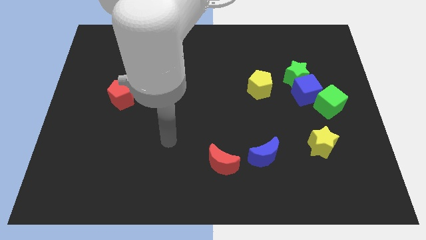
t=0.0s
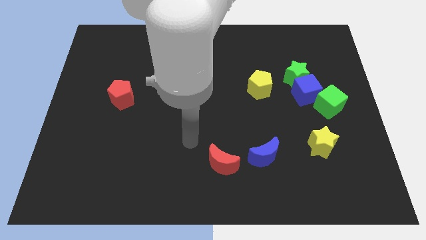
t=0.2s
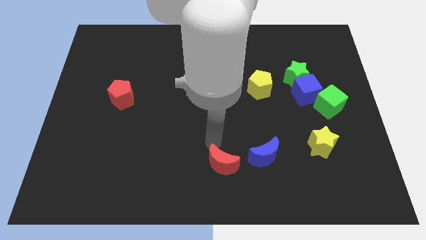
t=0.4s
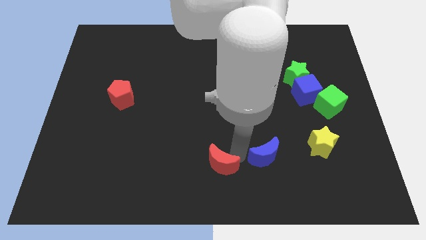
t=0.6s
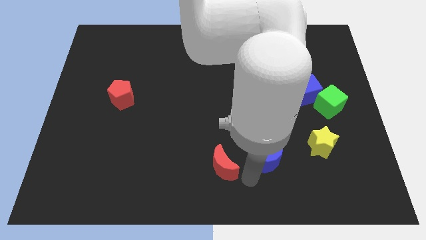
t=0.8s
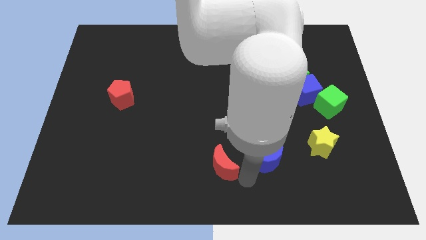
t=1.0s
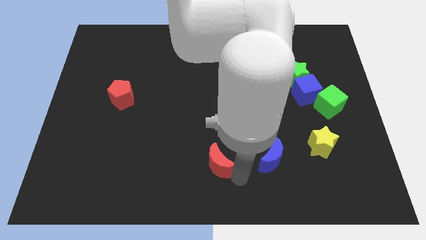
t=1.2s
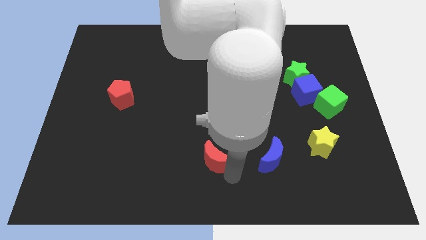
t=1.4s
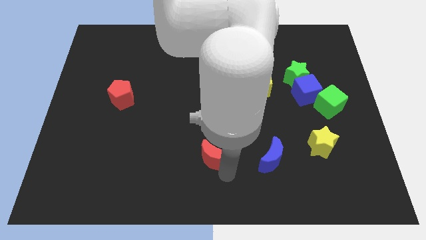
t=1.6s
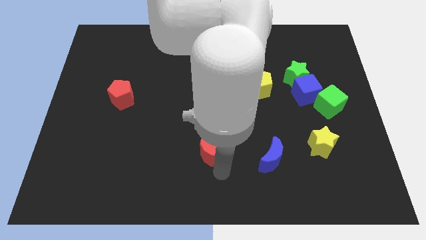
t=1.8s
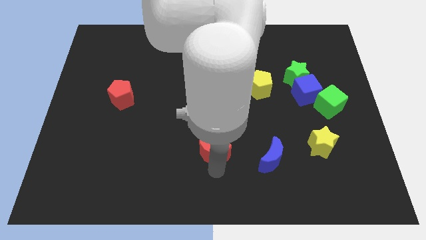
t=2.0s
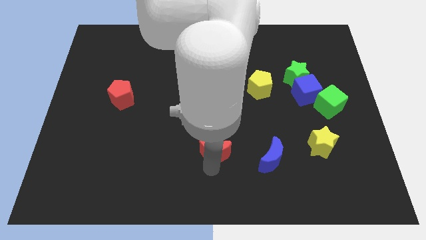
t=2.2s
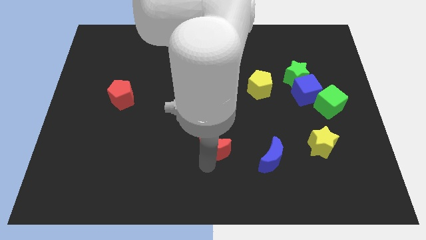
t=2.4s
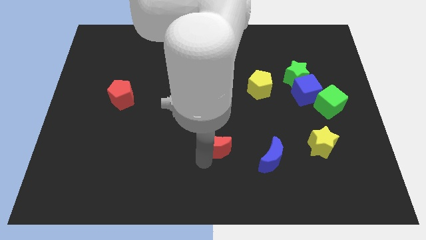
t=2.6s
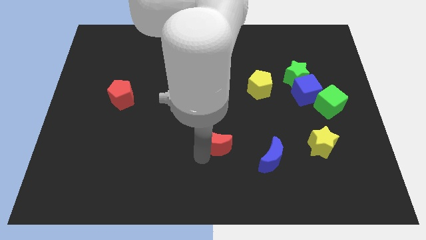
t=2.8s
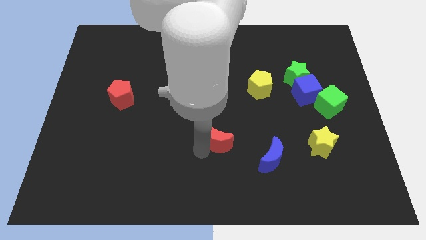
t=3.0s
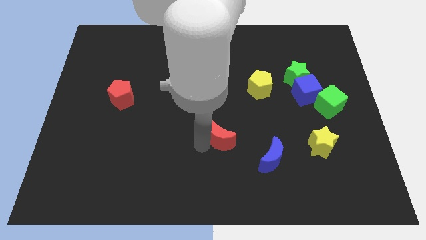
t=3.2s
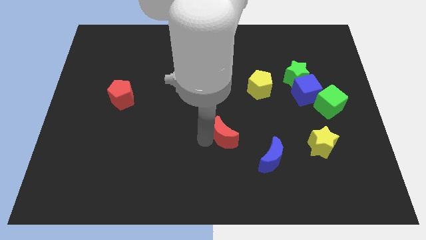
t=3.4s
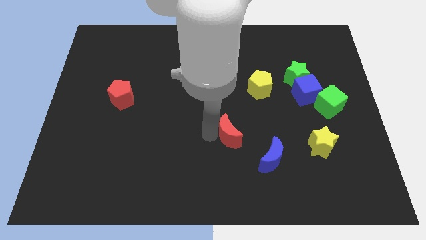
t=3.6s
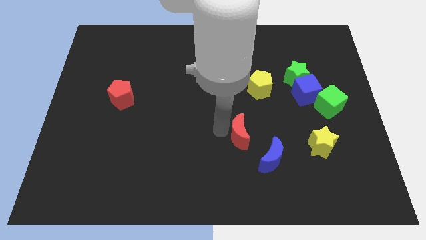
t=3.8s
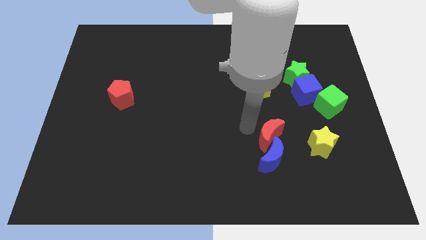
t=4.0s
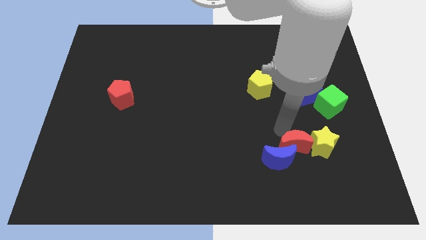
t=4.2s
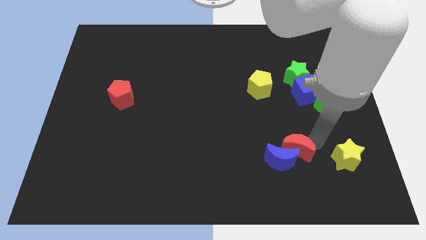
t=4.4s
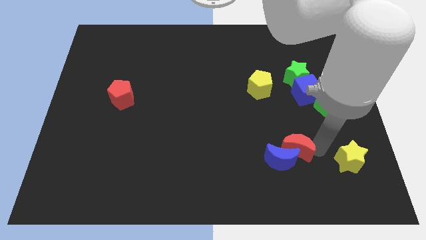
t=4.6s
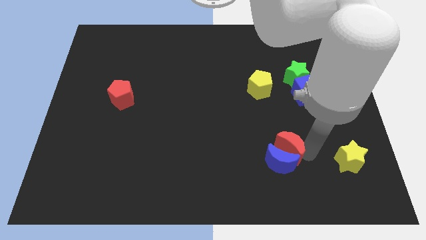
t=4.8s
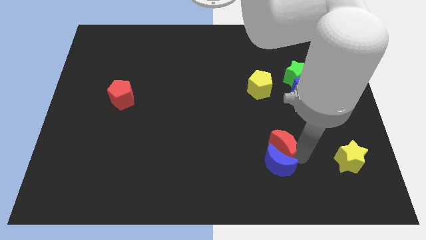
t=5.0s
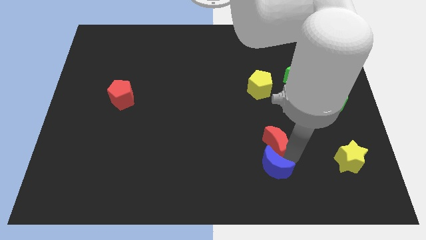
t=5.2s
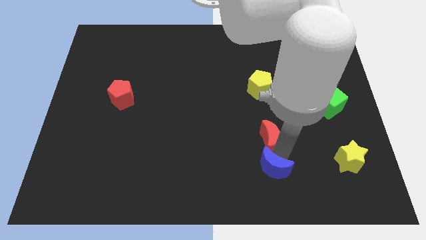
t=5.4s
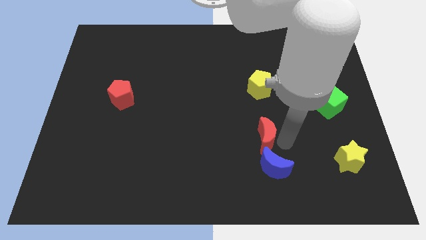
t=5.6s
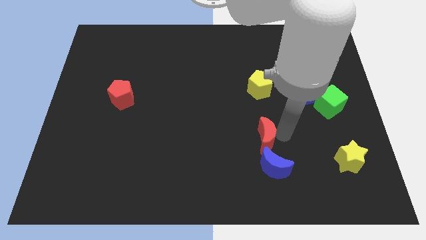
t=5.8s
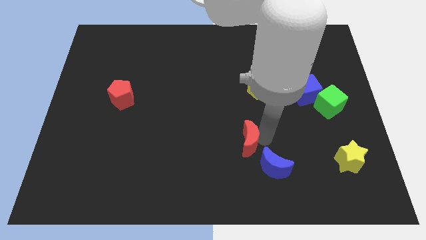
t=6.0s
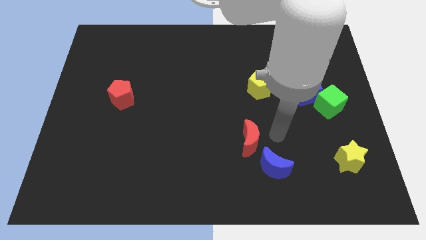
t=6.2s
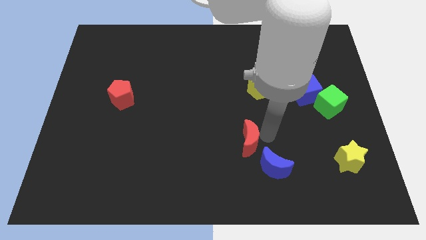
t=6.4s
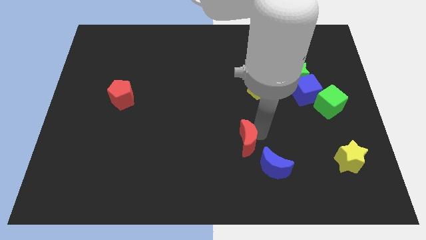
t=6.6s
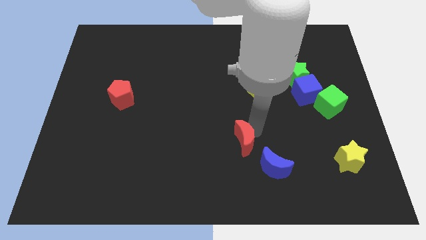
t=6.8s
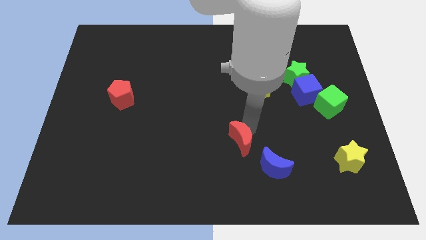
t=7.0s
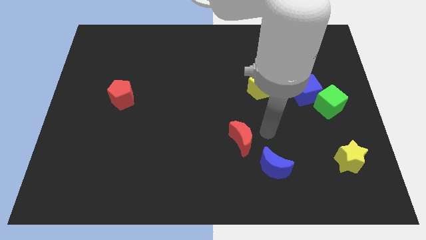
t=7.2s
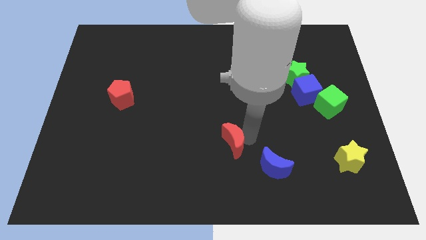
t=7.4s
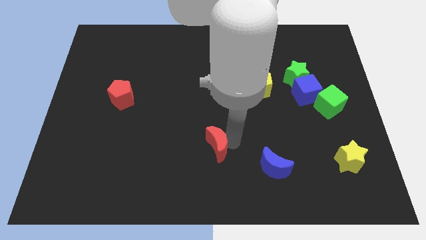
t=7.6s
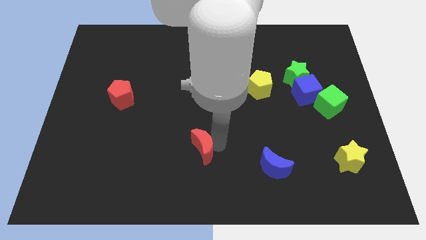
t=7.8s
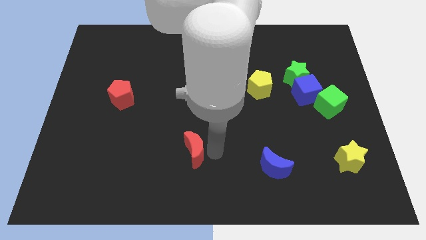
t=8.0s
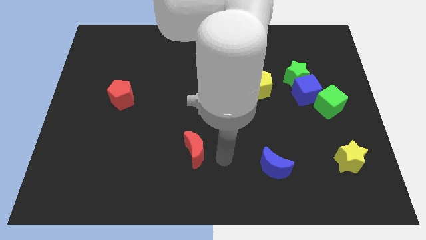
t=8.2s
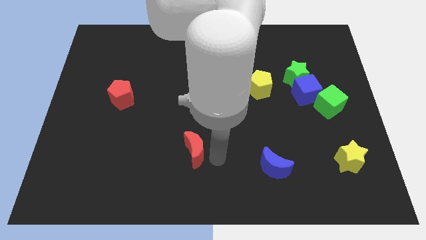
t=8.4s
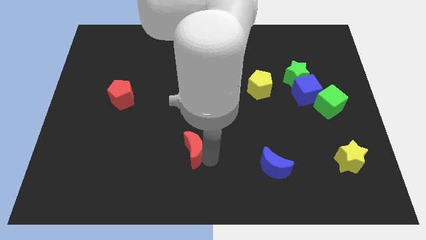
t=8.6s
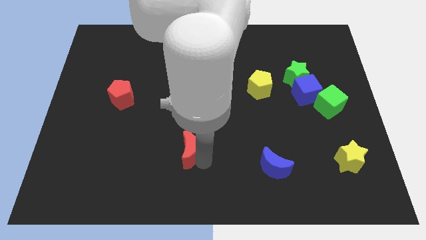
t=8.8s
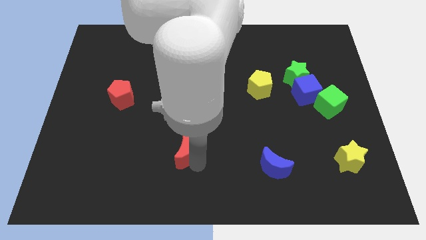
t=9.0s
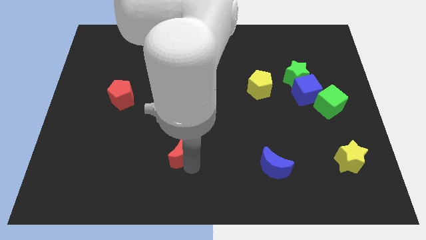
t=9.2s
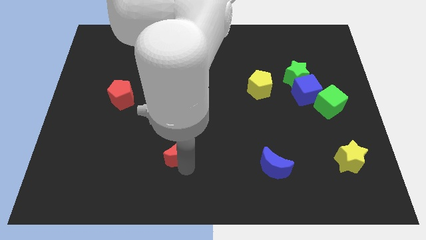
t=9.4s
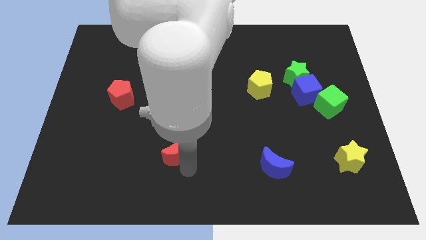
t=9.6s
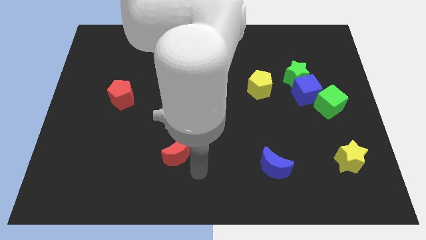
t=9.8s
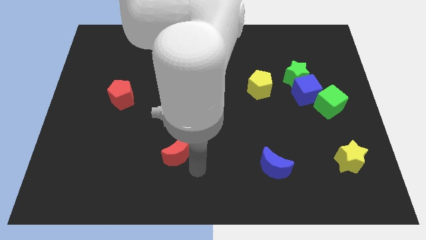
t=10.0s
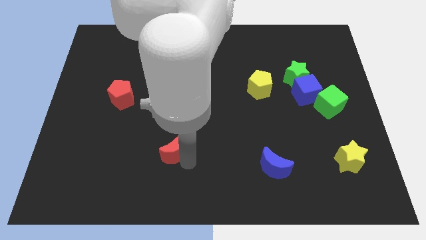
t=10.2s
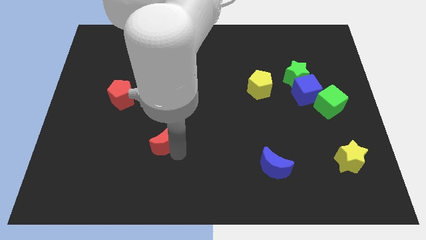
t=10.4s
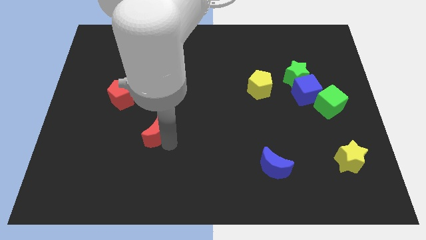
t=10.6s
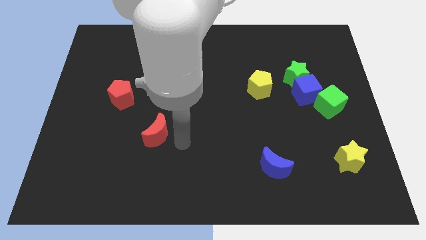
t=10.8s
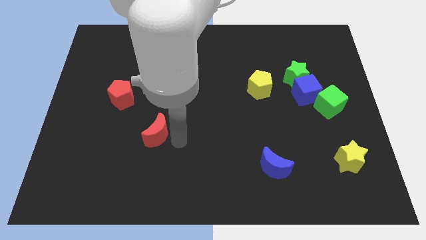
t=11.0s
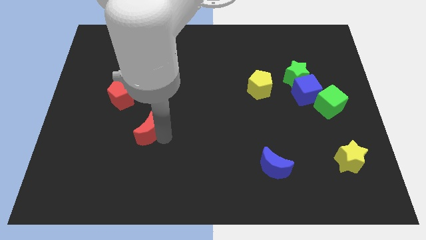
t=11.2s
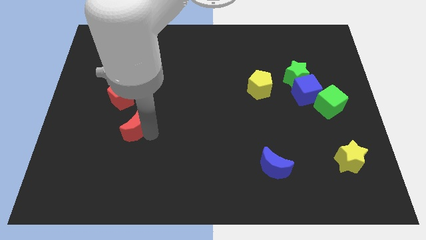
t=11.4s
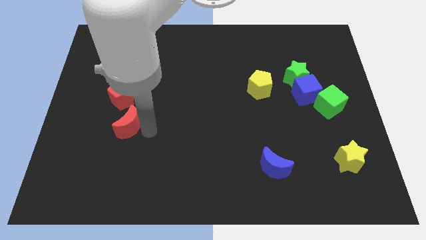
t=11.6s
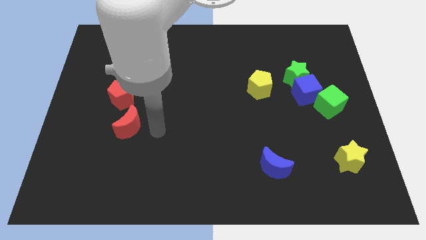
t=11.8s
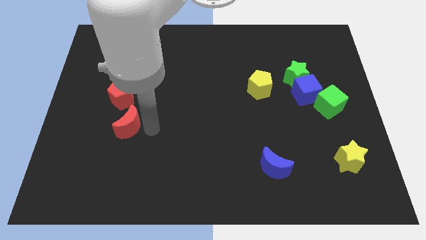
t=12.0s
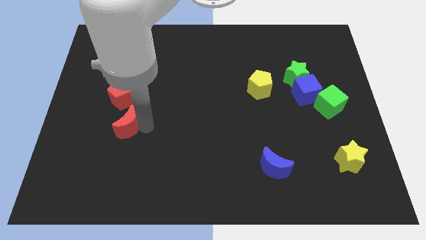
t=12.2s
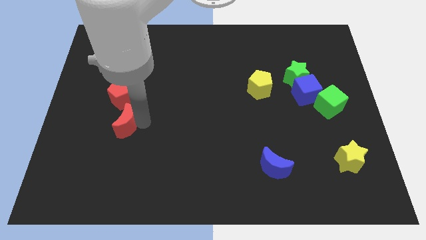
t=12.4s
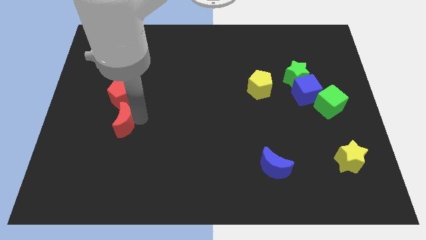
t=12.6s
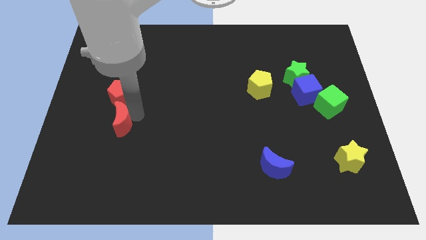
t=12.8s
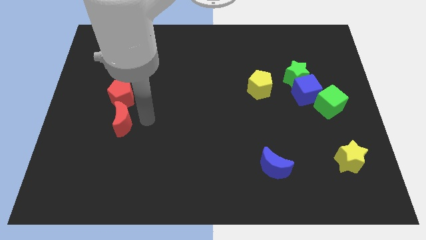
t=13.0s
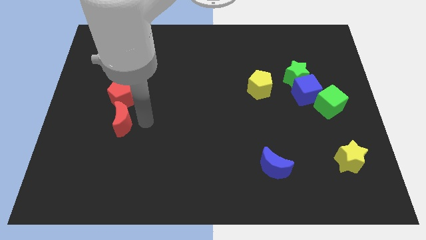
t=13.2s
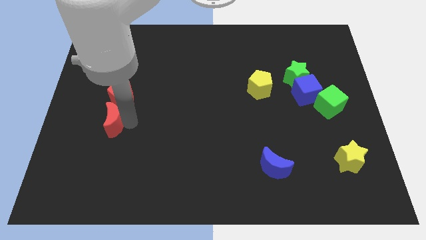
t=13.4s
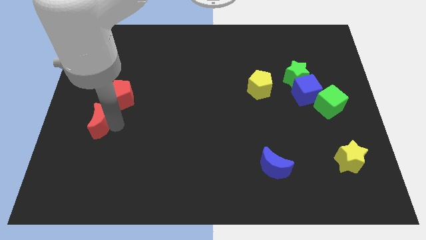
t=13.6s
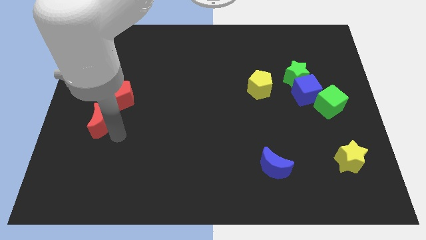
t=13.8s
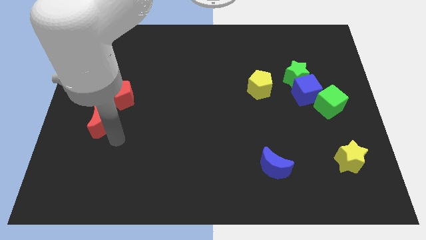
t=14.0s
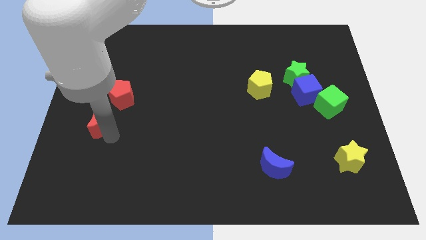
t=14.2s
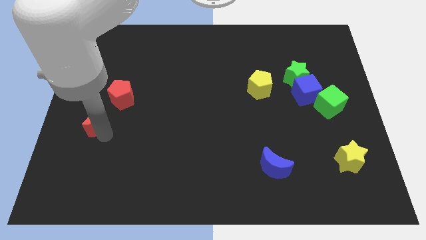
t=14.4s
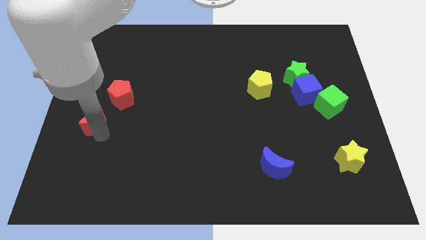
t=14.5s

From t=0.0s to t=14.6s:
move the red moon to the center left
